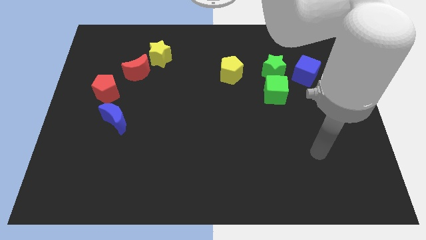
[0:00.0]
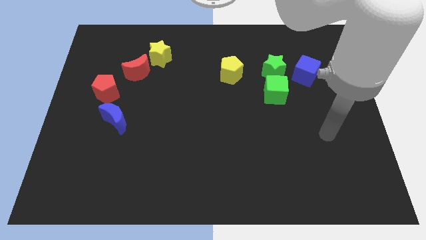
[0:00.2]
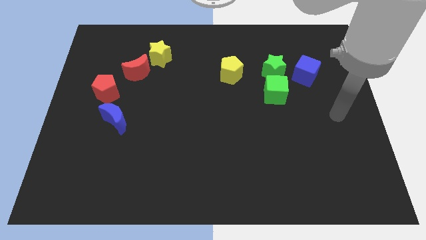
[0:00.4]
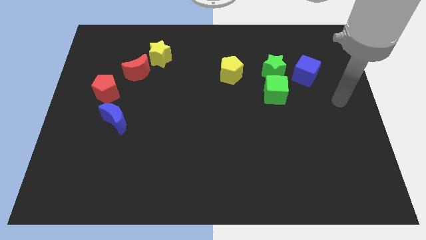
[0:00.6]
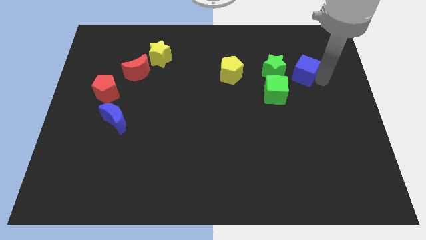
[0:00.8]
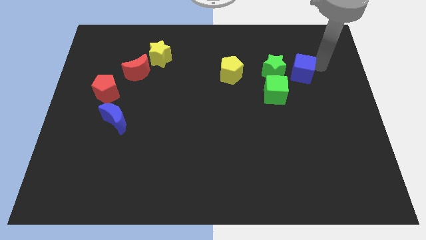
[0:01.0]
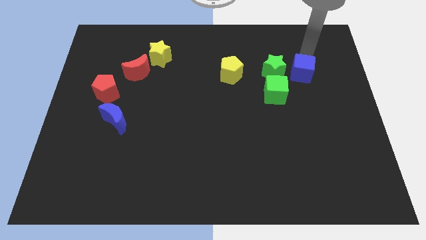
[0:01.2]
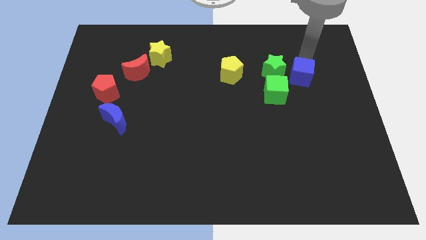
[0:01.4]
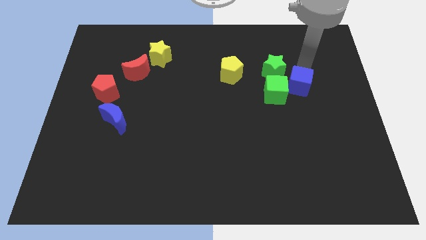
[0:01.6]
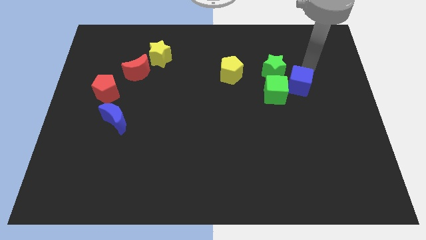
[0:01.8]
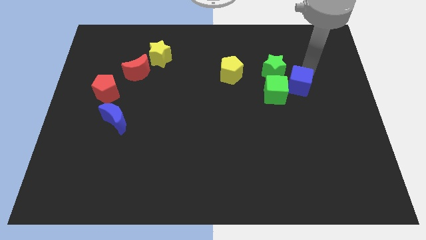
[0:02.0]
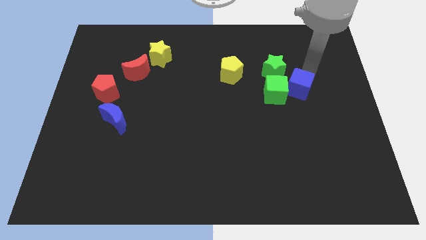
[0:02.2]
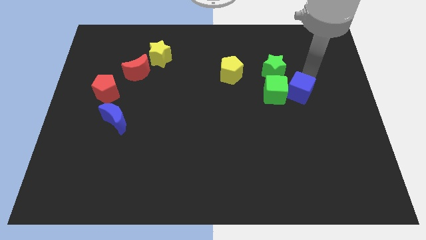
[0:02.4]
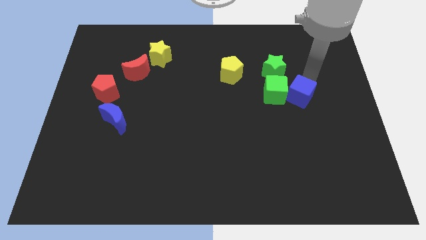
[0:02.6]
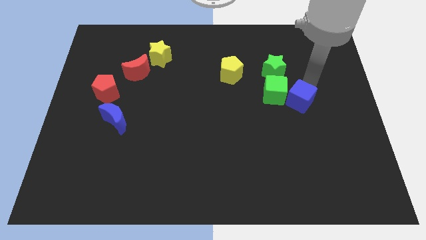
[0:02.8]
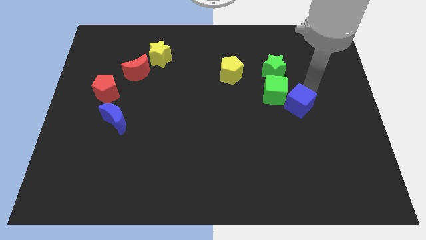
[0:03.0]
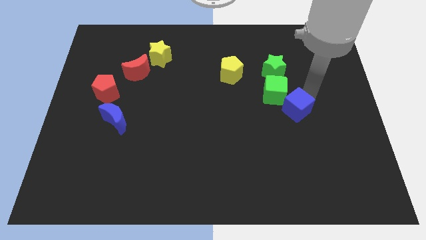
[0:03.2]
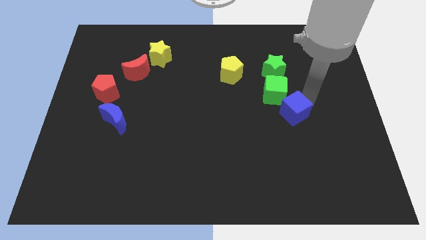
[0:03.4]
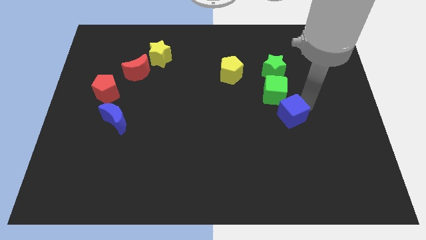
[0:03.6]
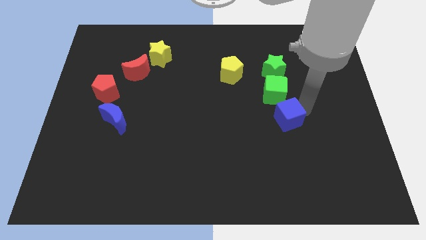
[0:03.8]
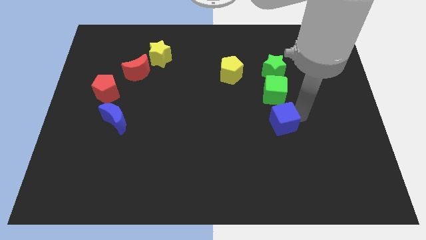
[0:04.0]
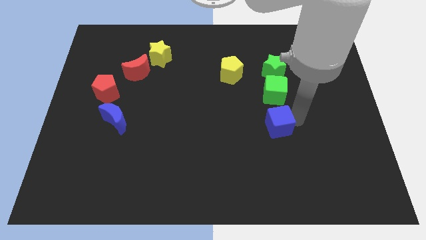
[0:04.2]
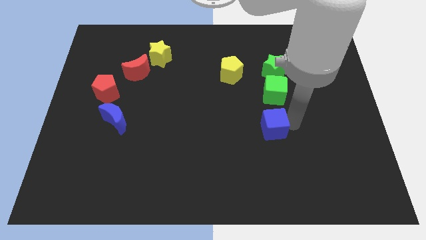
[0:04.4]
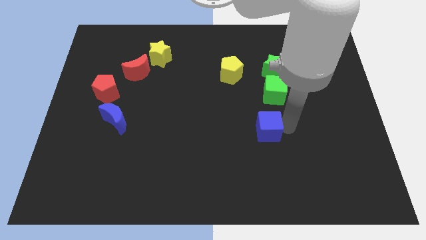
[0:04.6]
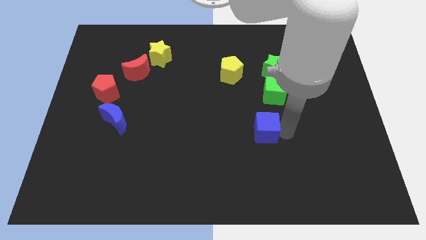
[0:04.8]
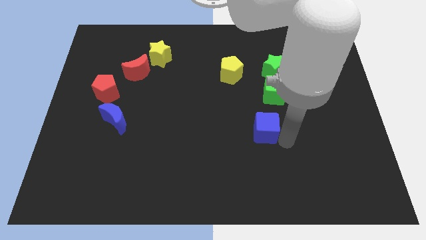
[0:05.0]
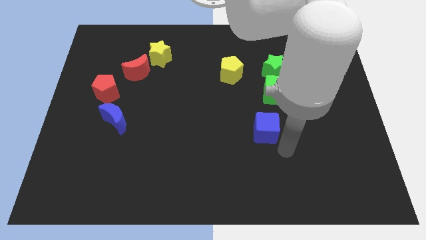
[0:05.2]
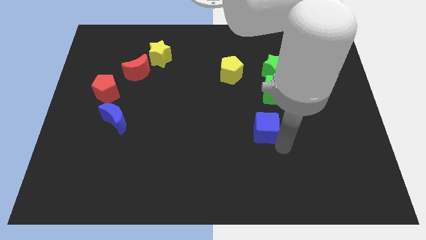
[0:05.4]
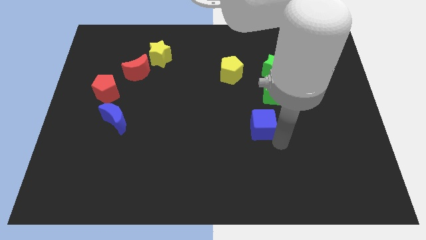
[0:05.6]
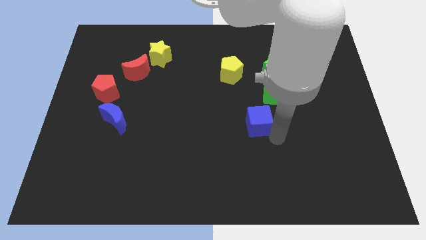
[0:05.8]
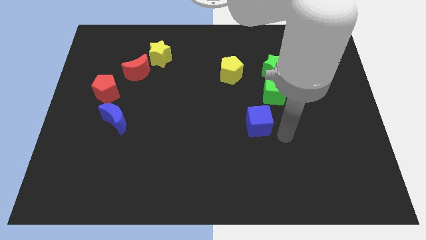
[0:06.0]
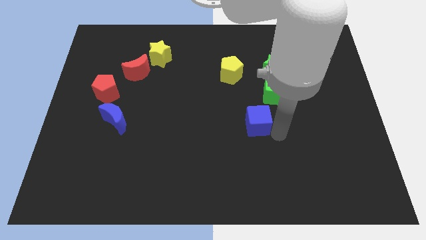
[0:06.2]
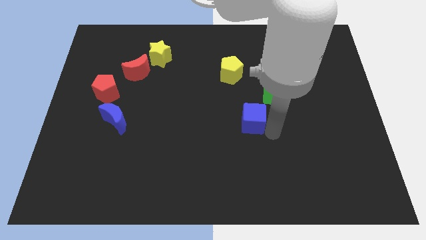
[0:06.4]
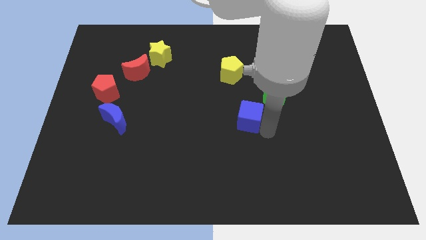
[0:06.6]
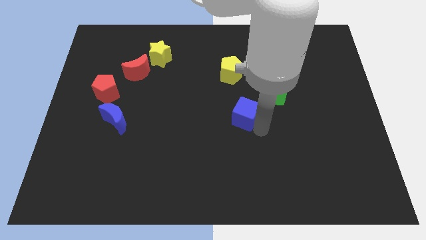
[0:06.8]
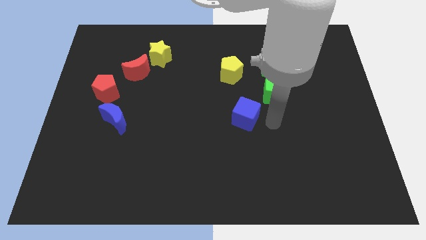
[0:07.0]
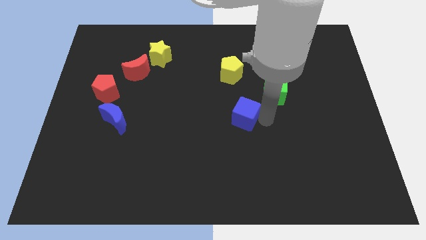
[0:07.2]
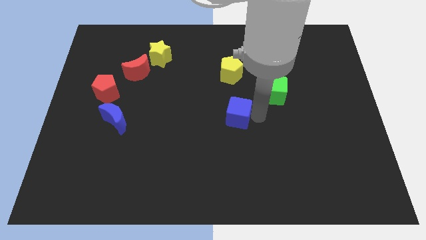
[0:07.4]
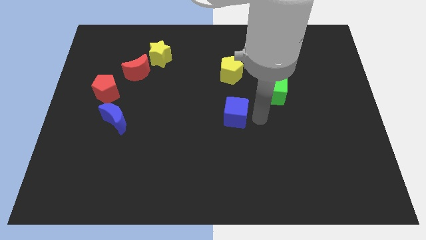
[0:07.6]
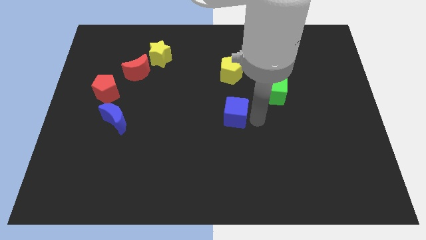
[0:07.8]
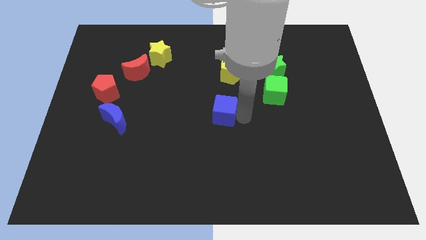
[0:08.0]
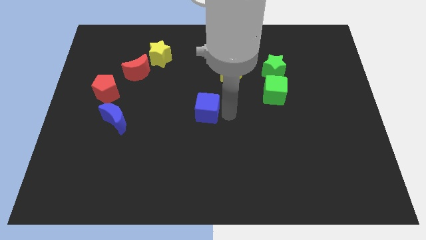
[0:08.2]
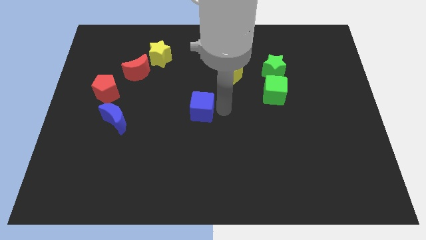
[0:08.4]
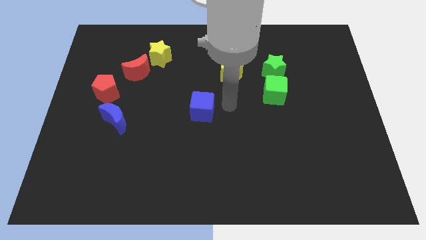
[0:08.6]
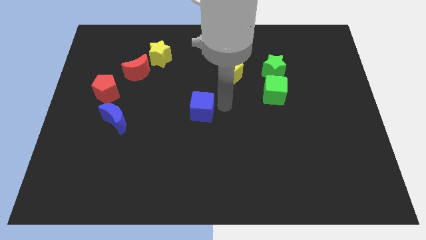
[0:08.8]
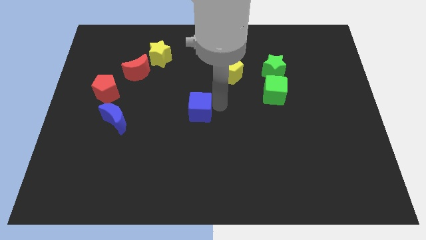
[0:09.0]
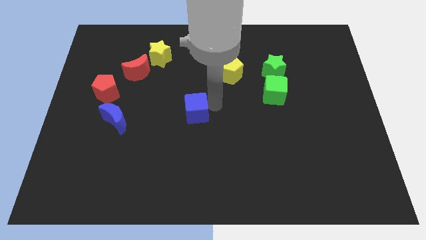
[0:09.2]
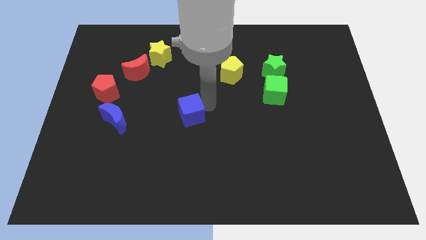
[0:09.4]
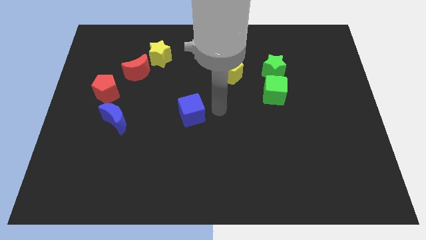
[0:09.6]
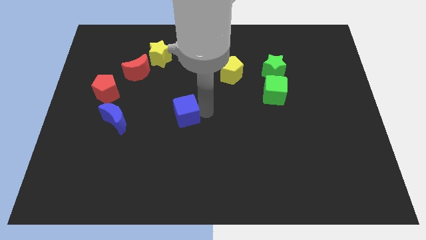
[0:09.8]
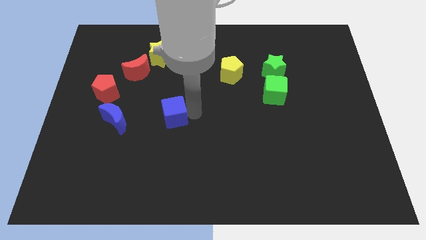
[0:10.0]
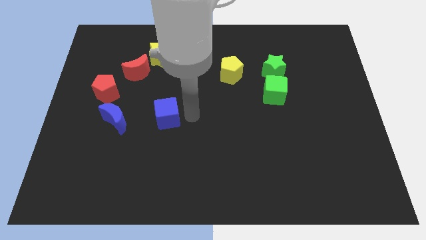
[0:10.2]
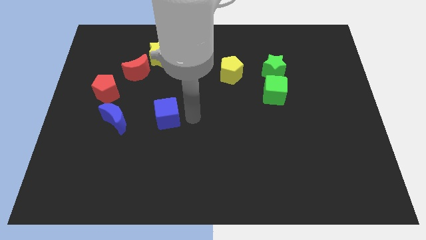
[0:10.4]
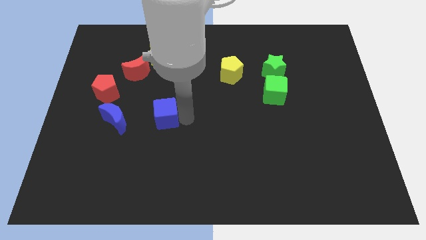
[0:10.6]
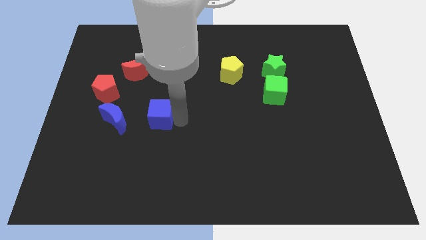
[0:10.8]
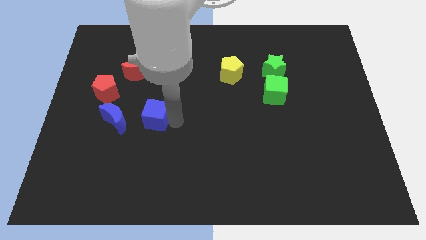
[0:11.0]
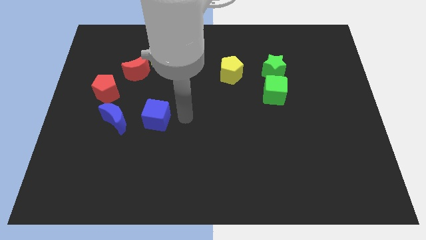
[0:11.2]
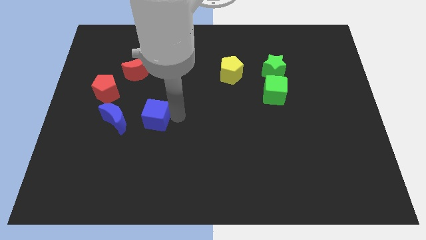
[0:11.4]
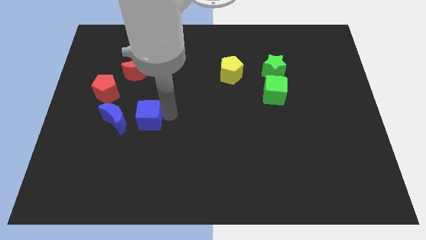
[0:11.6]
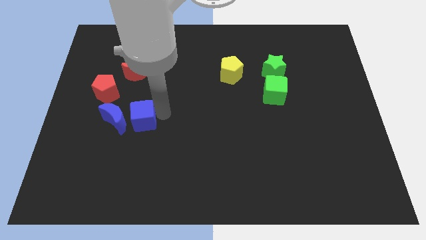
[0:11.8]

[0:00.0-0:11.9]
push the blue cube to the blue moon

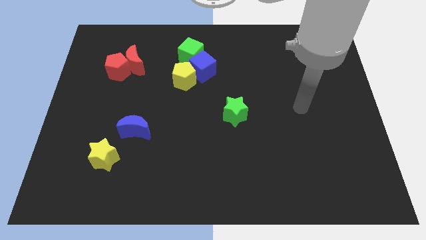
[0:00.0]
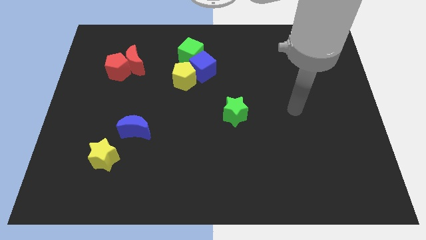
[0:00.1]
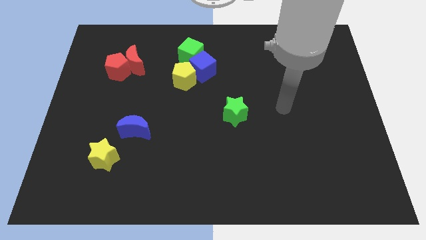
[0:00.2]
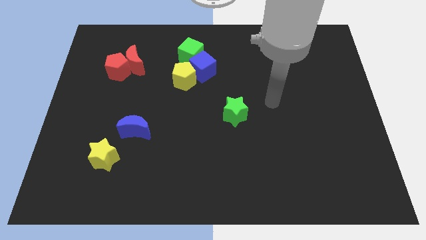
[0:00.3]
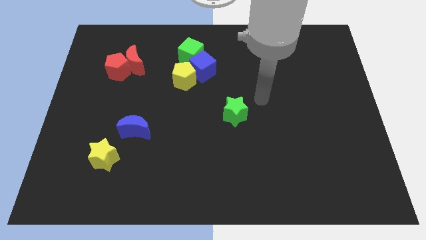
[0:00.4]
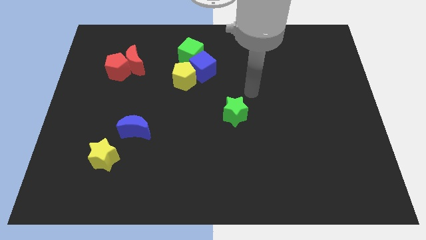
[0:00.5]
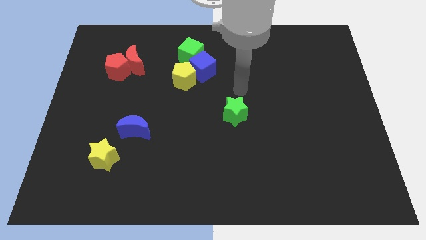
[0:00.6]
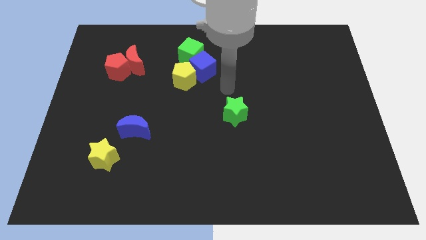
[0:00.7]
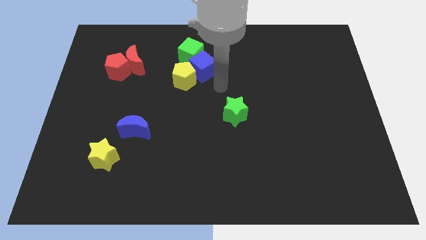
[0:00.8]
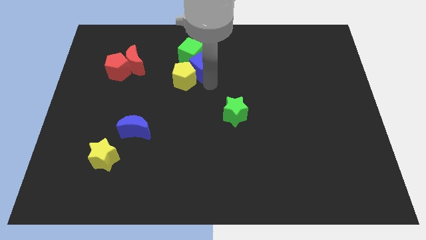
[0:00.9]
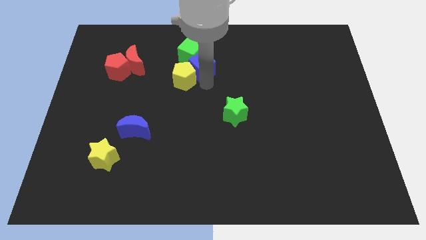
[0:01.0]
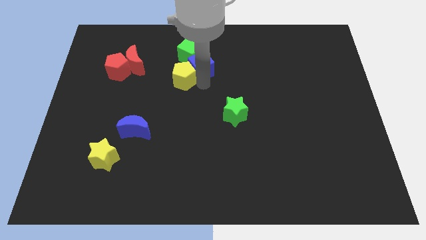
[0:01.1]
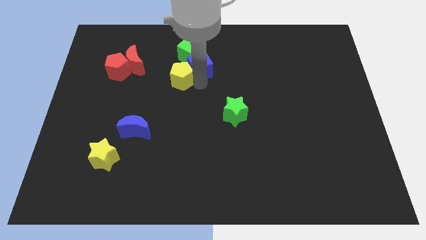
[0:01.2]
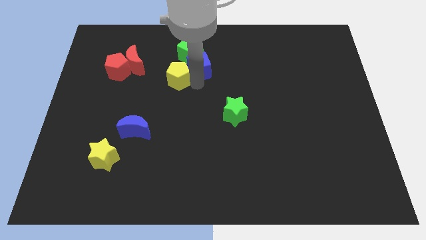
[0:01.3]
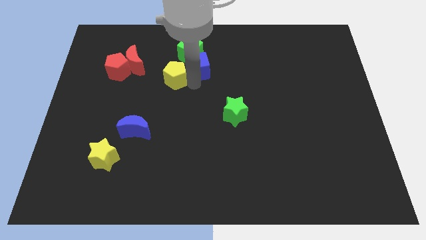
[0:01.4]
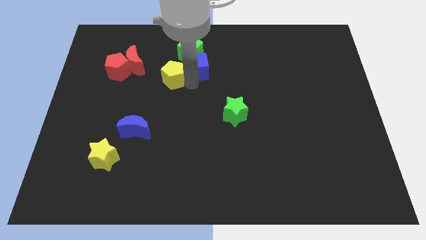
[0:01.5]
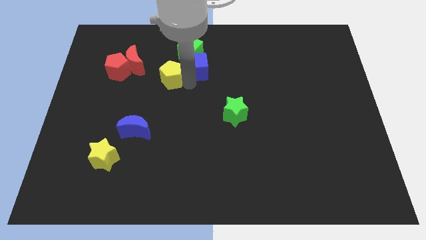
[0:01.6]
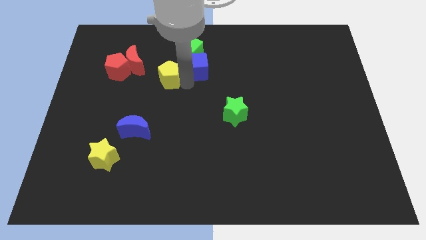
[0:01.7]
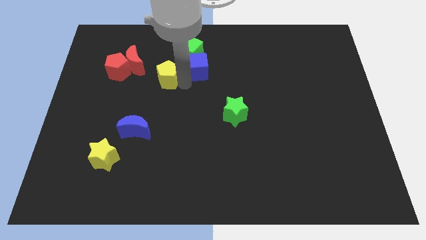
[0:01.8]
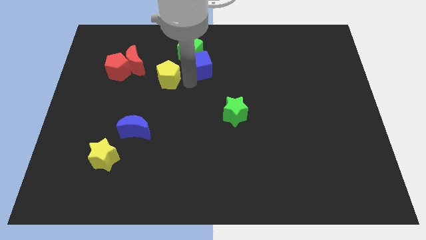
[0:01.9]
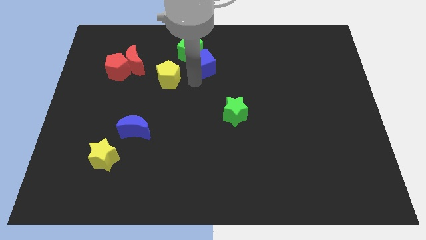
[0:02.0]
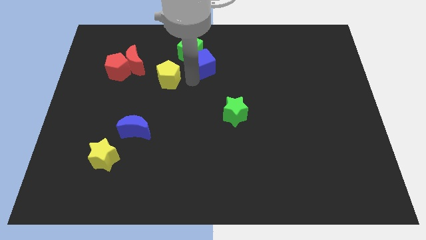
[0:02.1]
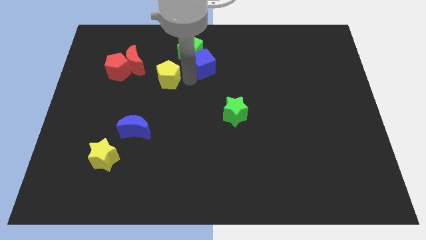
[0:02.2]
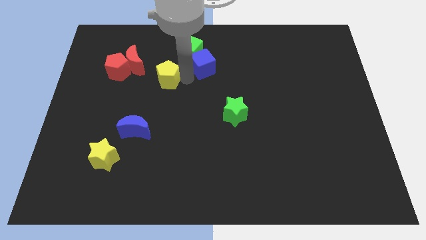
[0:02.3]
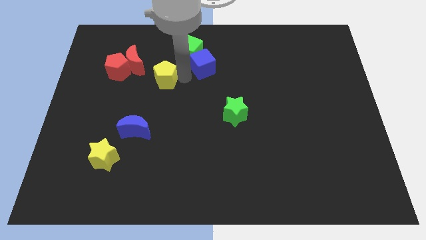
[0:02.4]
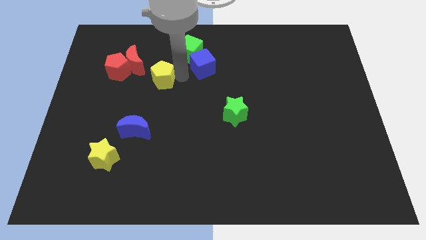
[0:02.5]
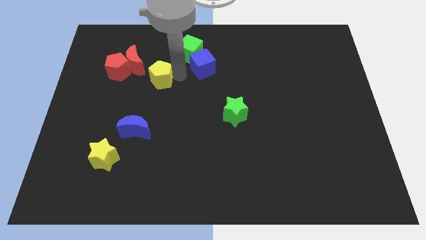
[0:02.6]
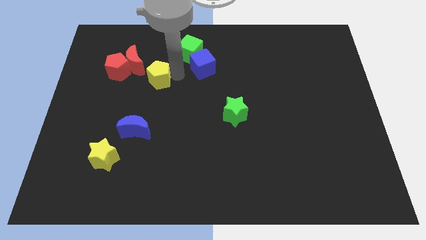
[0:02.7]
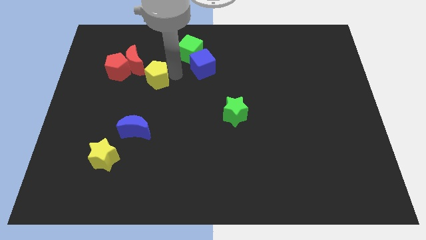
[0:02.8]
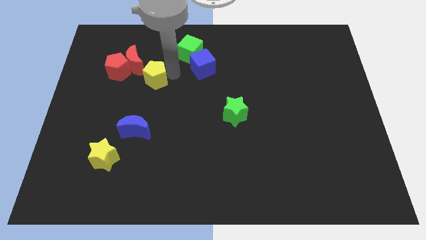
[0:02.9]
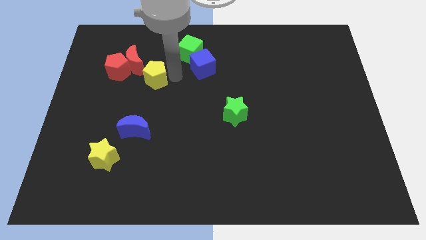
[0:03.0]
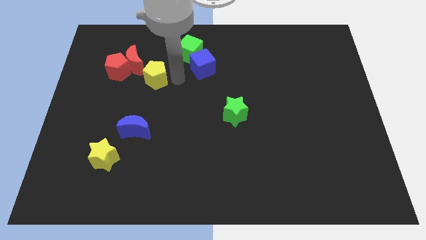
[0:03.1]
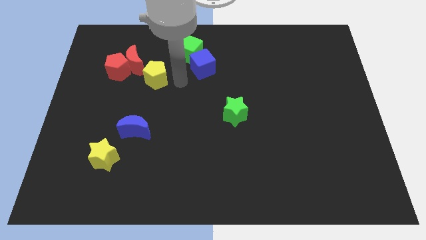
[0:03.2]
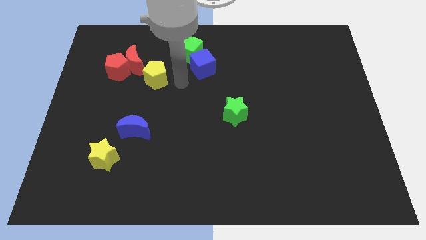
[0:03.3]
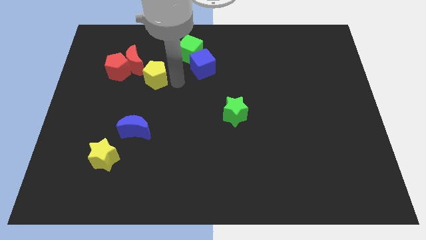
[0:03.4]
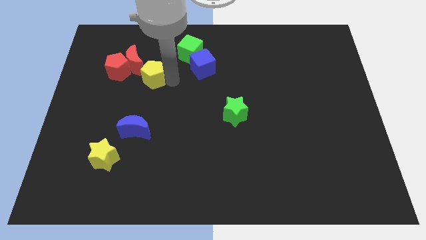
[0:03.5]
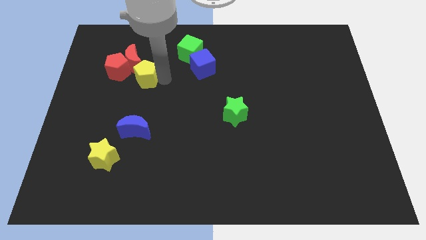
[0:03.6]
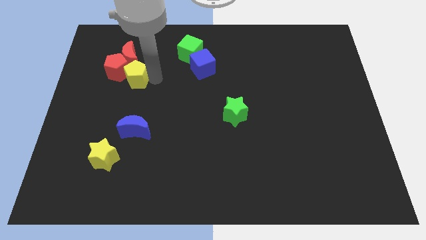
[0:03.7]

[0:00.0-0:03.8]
put the yellow pentagon to the red pentagon
